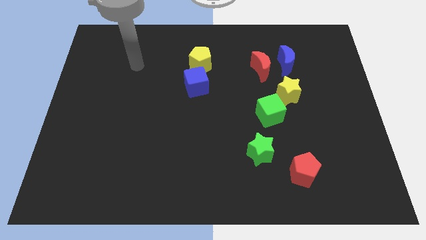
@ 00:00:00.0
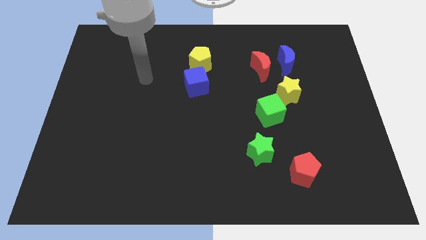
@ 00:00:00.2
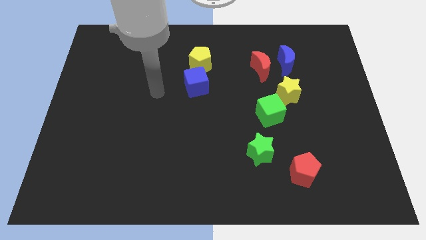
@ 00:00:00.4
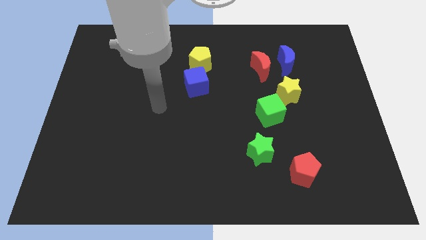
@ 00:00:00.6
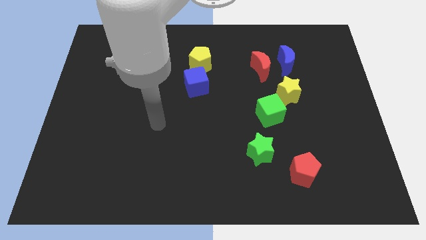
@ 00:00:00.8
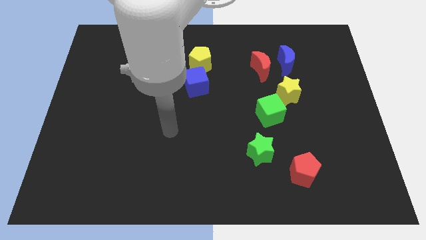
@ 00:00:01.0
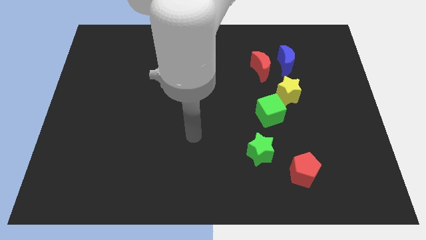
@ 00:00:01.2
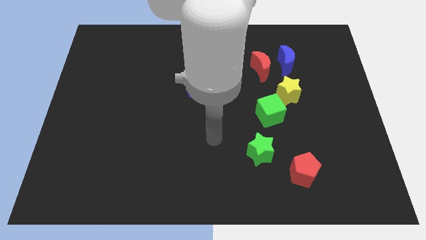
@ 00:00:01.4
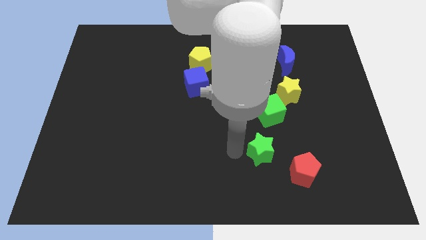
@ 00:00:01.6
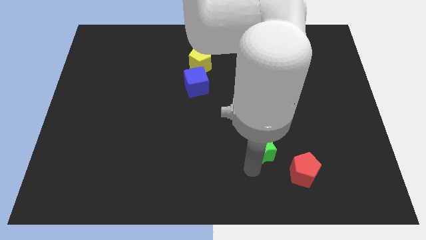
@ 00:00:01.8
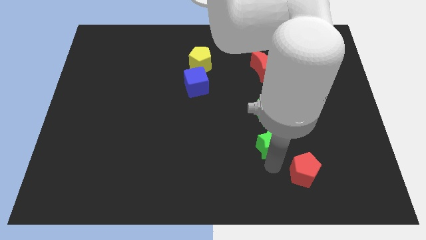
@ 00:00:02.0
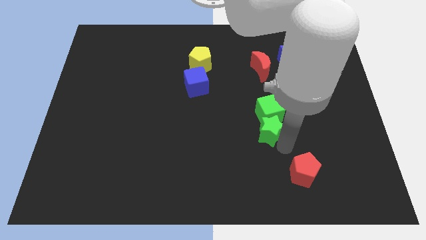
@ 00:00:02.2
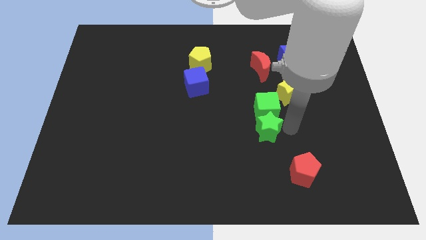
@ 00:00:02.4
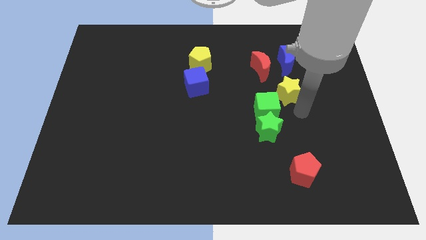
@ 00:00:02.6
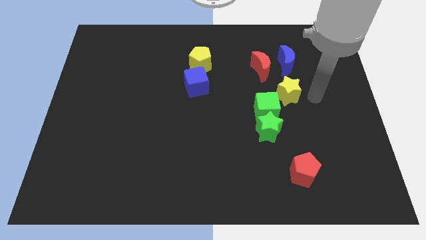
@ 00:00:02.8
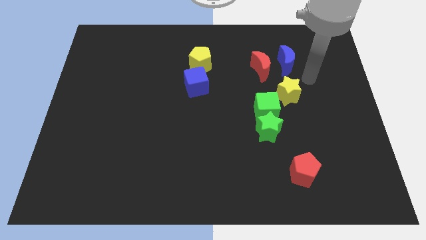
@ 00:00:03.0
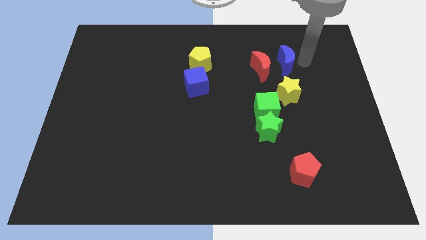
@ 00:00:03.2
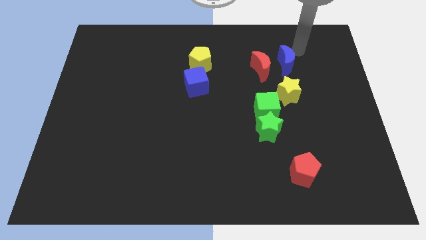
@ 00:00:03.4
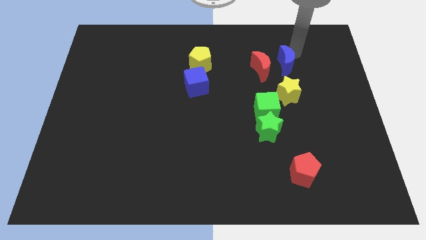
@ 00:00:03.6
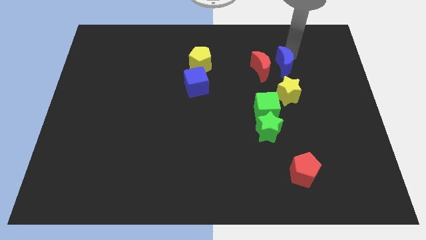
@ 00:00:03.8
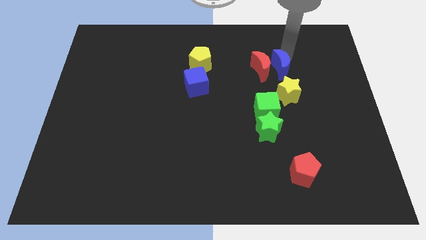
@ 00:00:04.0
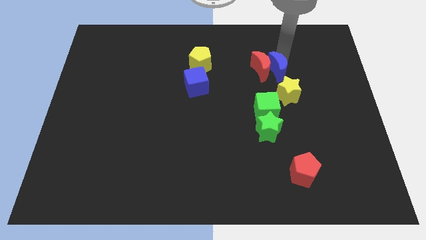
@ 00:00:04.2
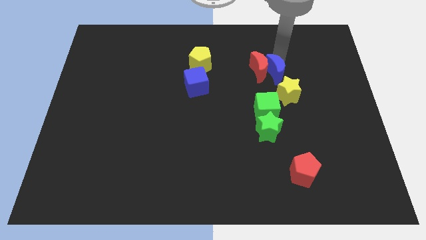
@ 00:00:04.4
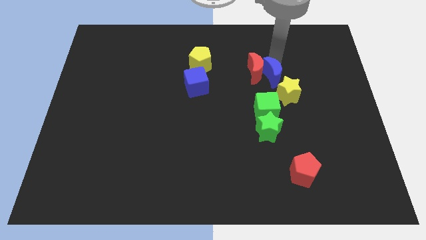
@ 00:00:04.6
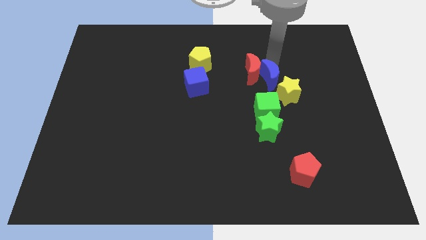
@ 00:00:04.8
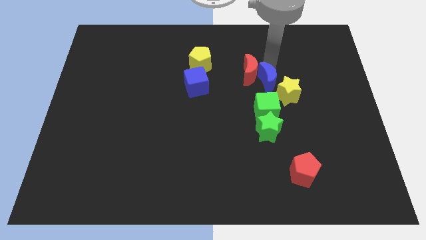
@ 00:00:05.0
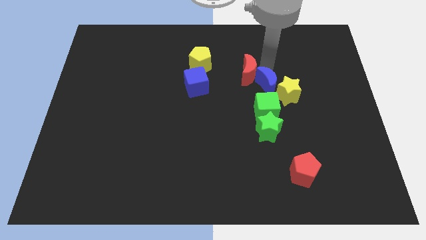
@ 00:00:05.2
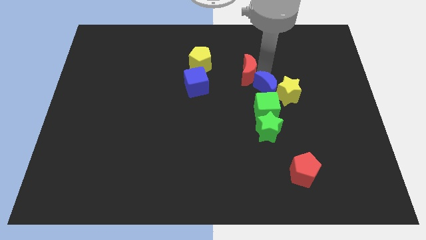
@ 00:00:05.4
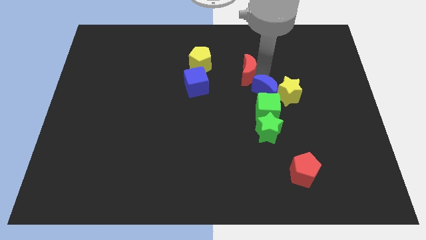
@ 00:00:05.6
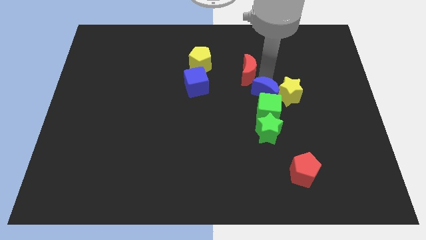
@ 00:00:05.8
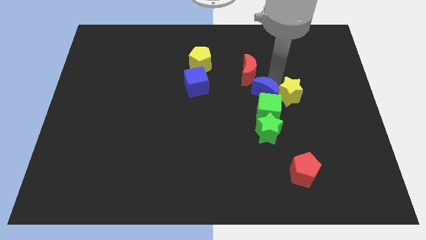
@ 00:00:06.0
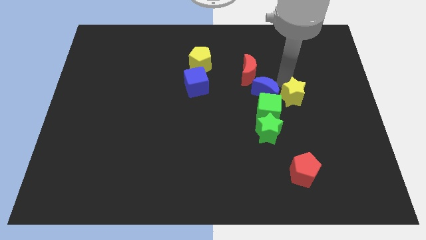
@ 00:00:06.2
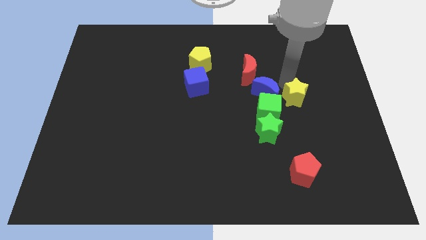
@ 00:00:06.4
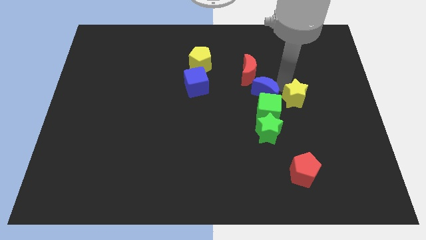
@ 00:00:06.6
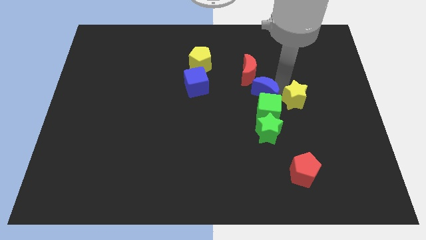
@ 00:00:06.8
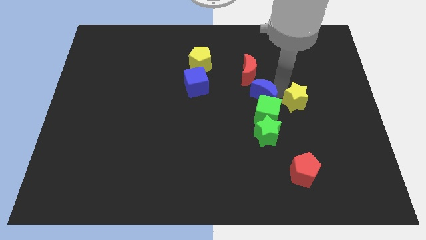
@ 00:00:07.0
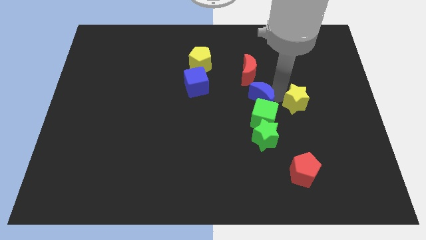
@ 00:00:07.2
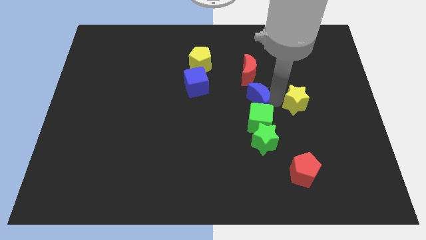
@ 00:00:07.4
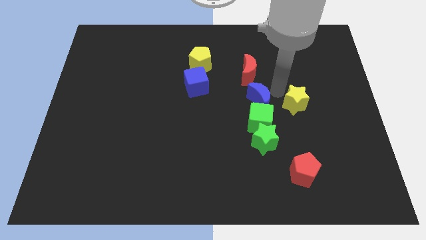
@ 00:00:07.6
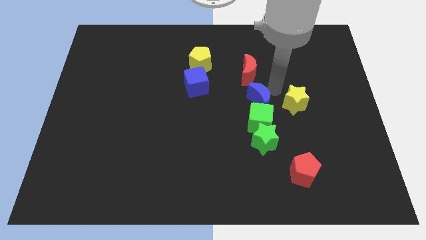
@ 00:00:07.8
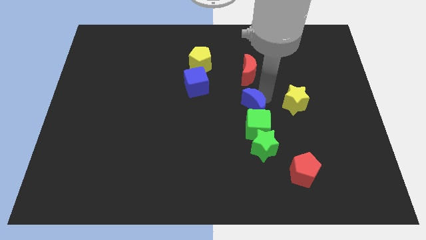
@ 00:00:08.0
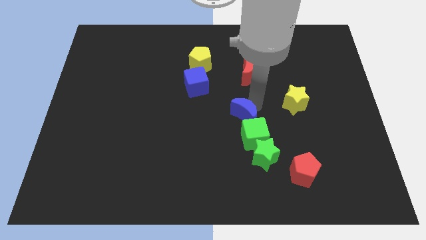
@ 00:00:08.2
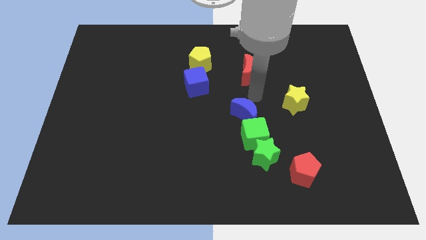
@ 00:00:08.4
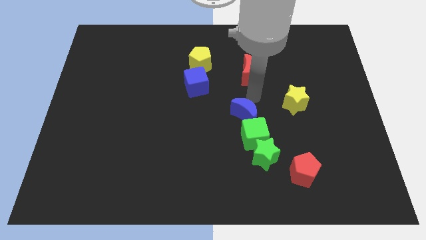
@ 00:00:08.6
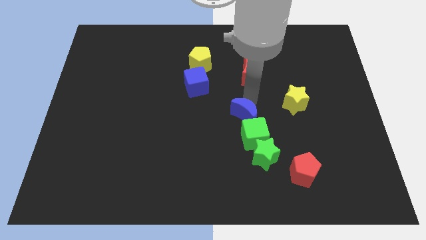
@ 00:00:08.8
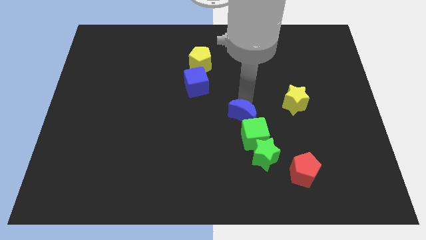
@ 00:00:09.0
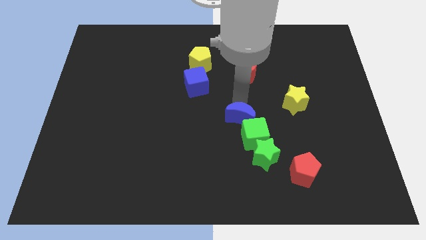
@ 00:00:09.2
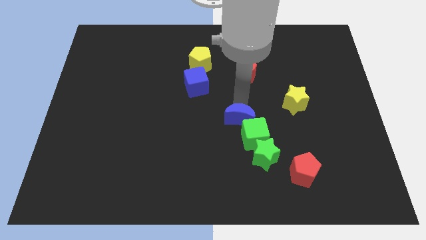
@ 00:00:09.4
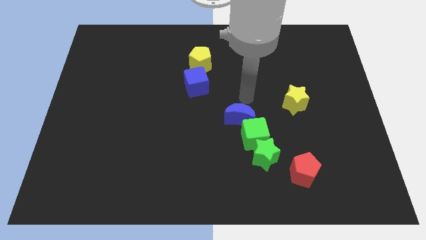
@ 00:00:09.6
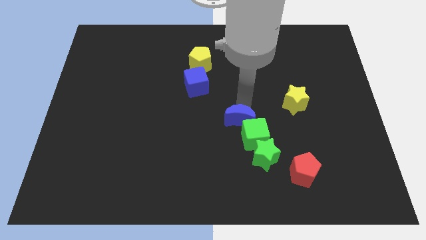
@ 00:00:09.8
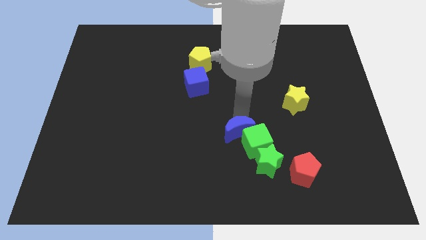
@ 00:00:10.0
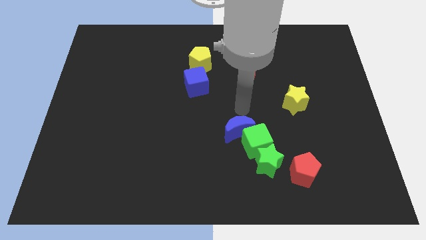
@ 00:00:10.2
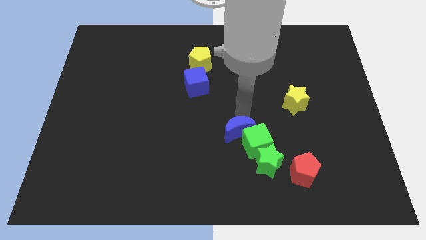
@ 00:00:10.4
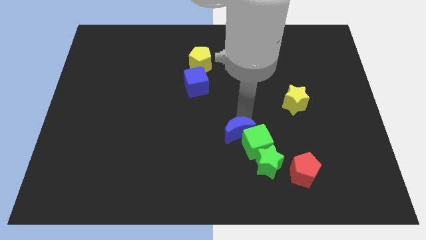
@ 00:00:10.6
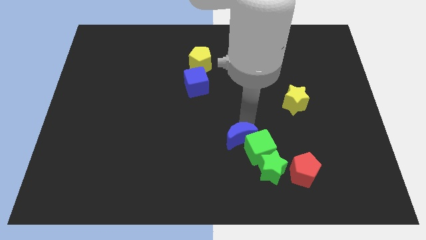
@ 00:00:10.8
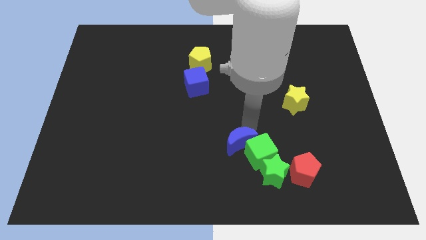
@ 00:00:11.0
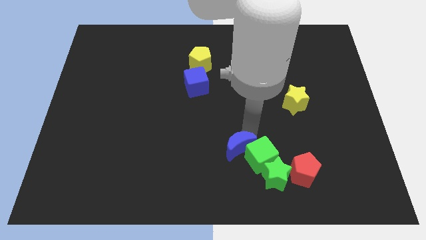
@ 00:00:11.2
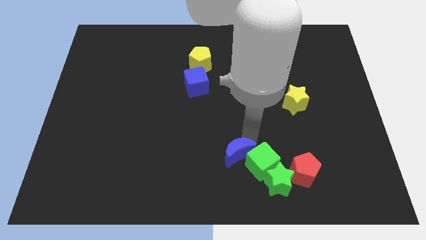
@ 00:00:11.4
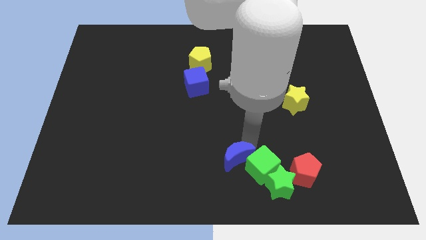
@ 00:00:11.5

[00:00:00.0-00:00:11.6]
move the blue moon to the bottom

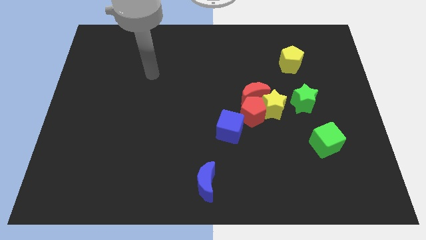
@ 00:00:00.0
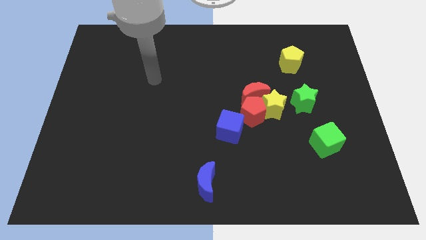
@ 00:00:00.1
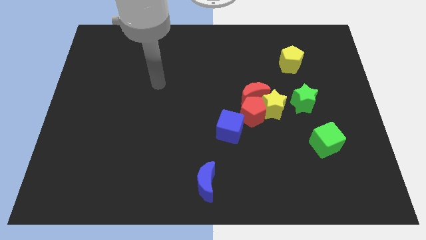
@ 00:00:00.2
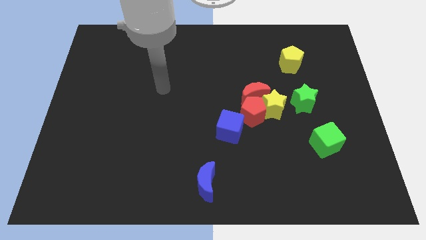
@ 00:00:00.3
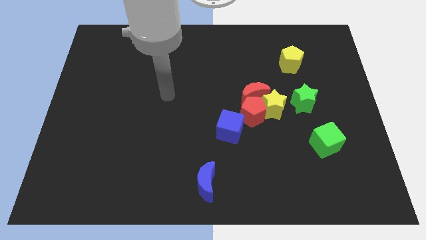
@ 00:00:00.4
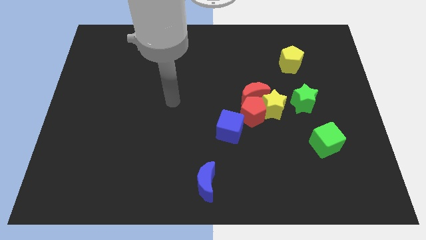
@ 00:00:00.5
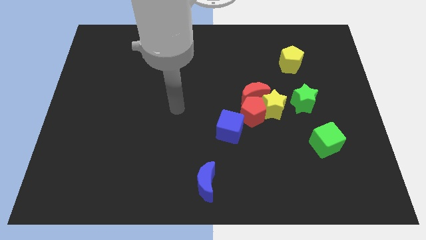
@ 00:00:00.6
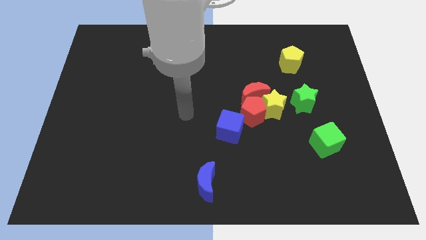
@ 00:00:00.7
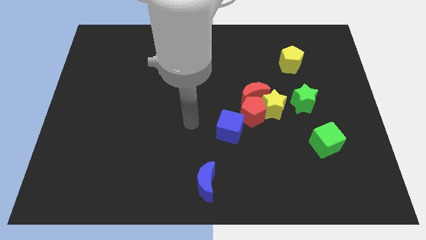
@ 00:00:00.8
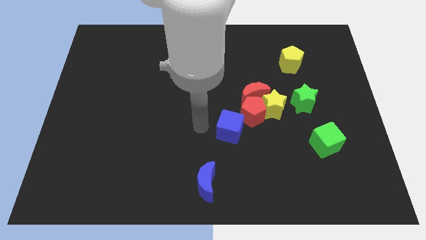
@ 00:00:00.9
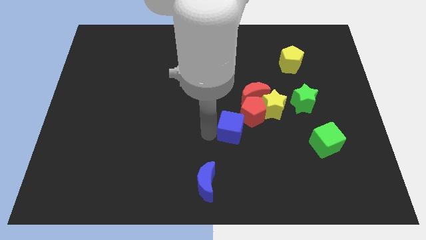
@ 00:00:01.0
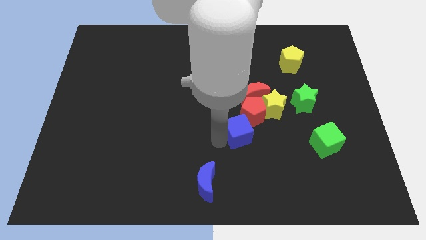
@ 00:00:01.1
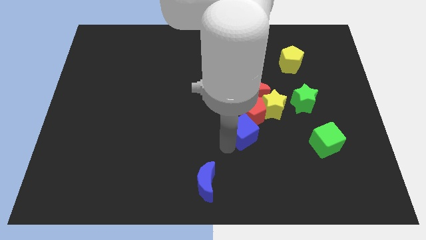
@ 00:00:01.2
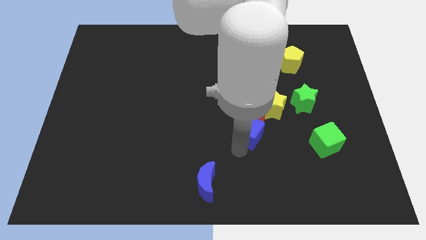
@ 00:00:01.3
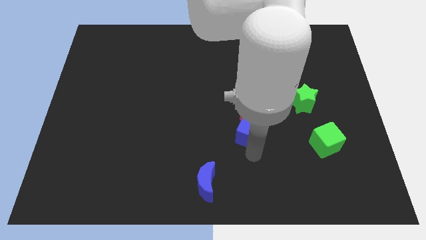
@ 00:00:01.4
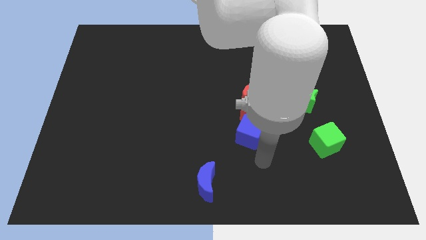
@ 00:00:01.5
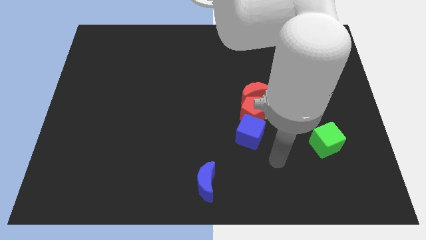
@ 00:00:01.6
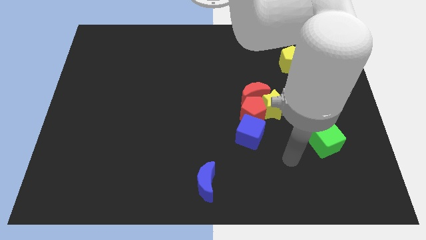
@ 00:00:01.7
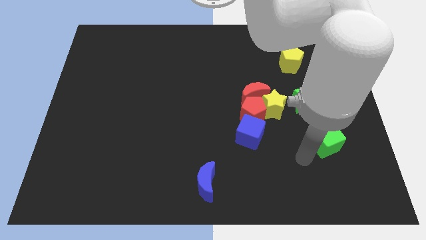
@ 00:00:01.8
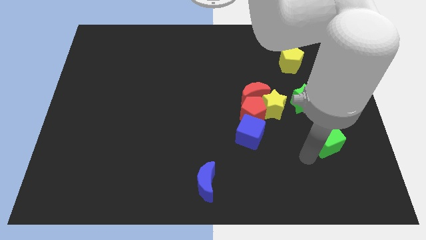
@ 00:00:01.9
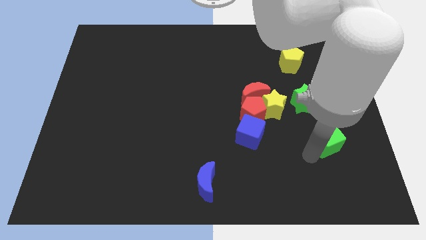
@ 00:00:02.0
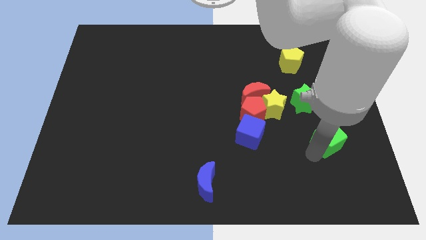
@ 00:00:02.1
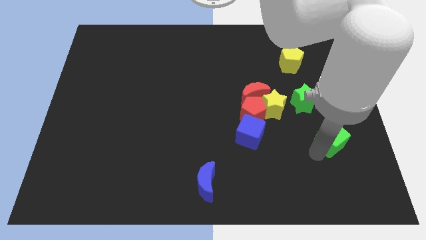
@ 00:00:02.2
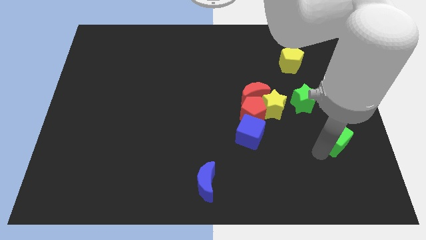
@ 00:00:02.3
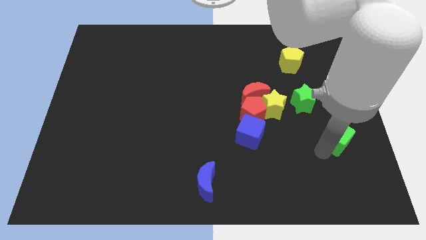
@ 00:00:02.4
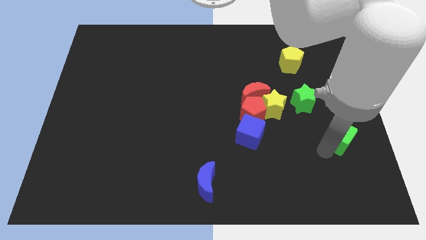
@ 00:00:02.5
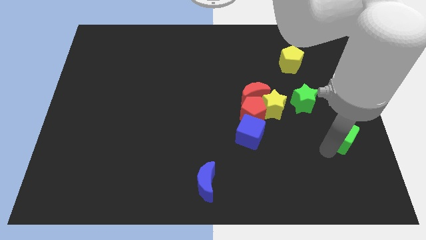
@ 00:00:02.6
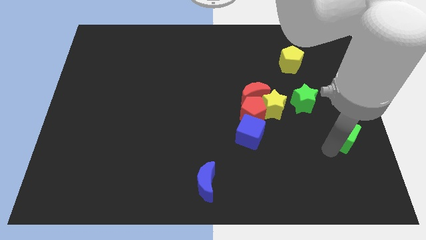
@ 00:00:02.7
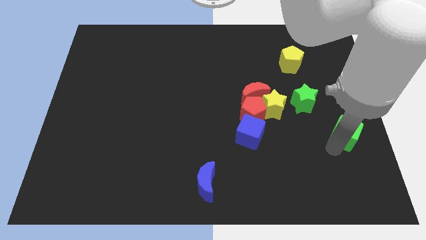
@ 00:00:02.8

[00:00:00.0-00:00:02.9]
move the green cube to the right side of the board
